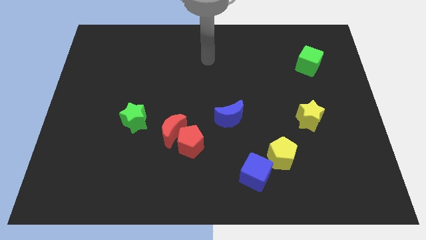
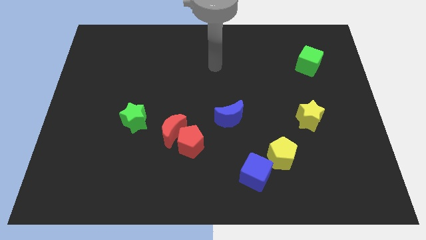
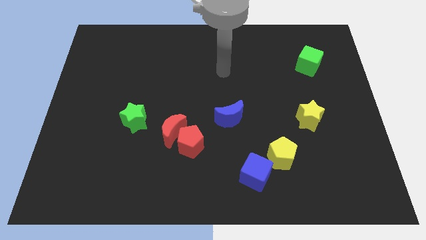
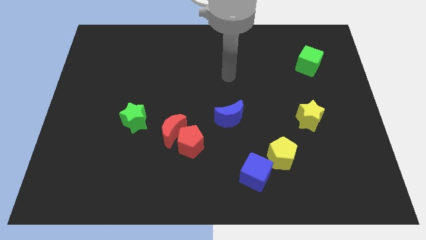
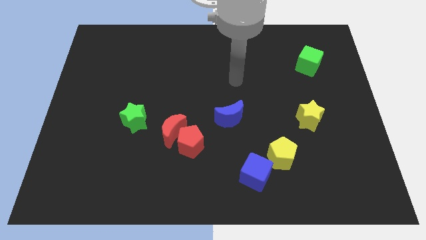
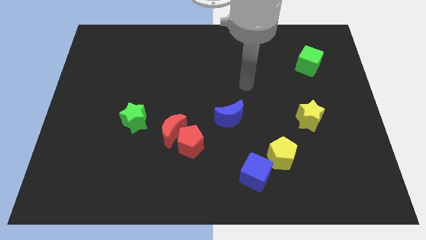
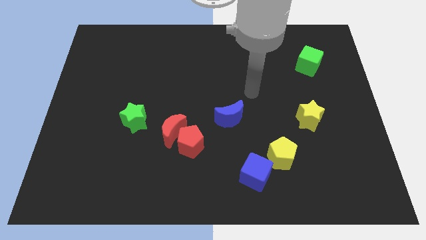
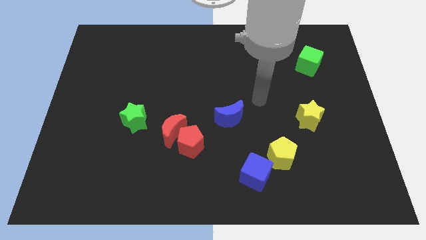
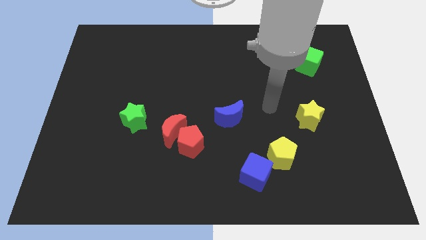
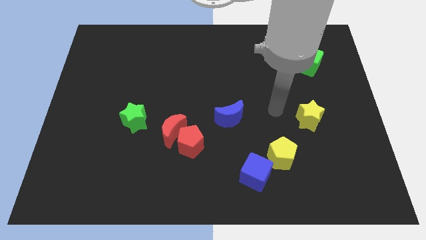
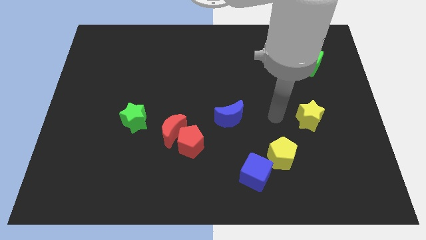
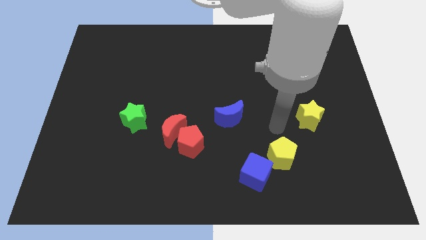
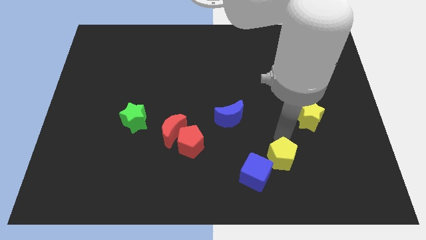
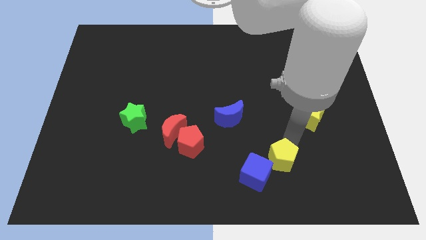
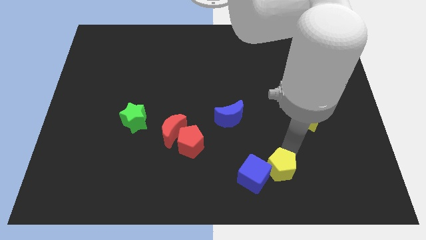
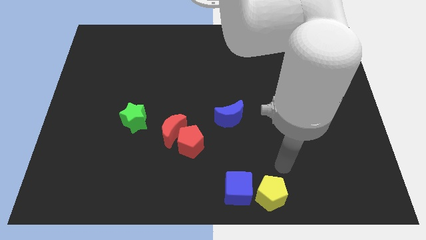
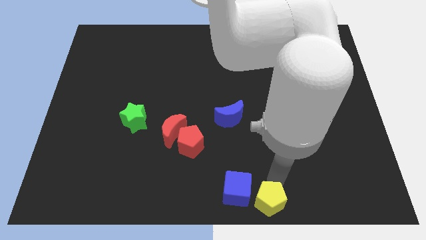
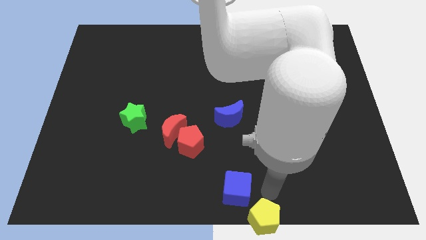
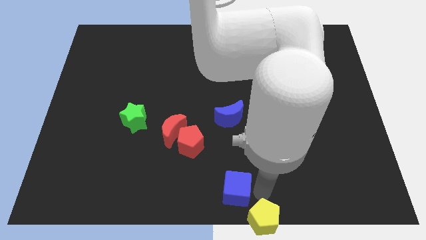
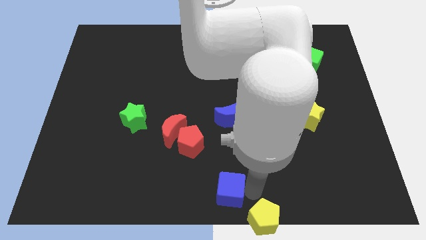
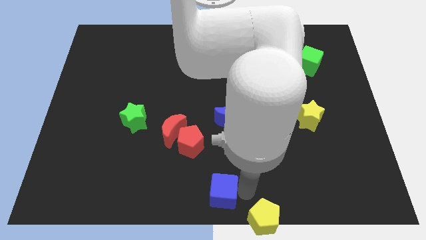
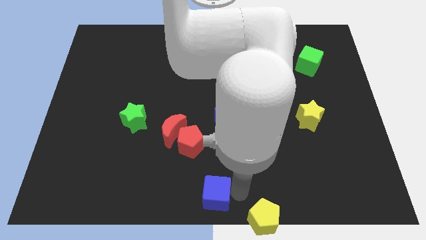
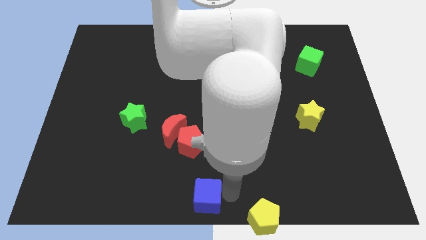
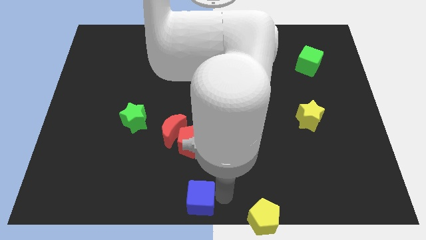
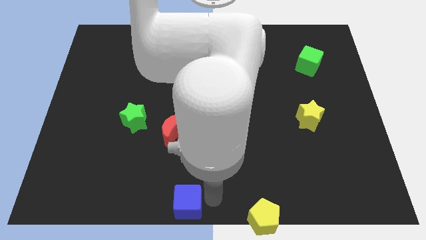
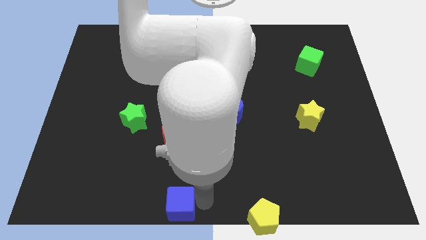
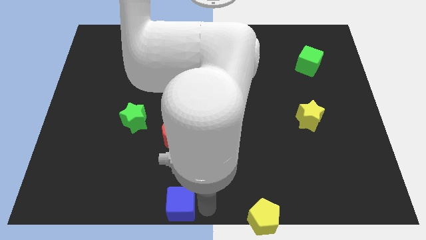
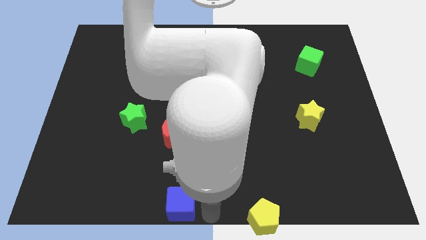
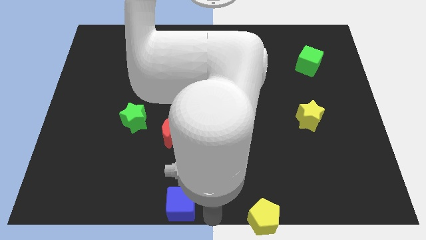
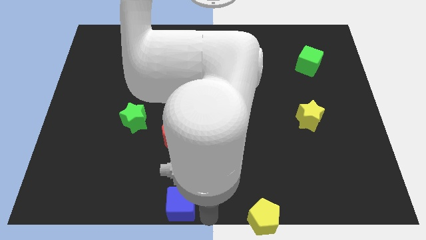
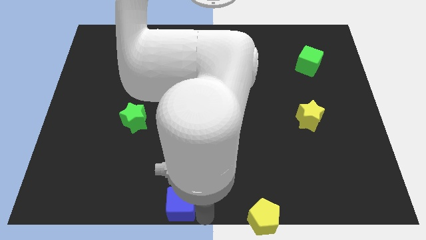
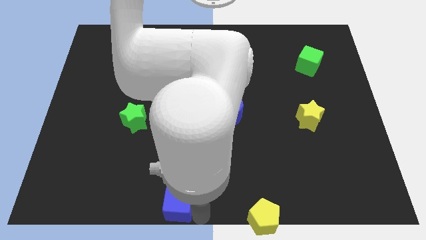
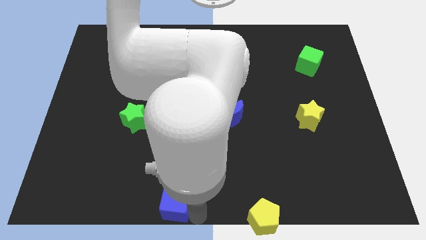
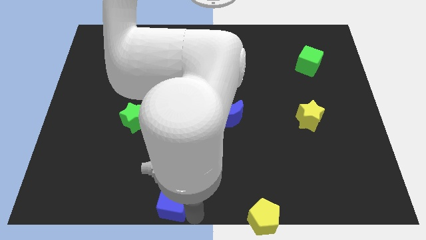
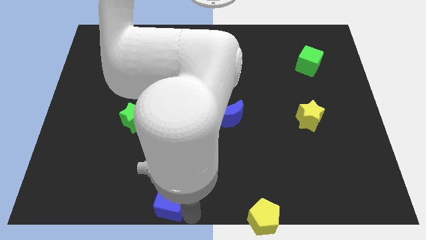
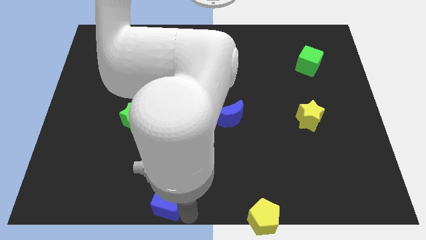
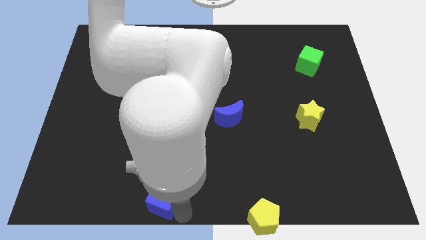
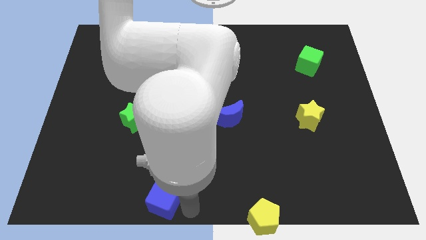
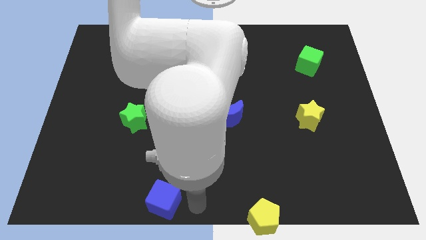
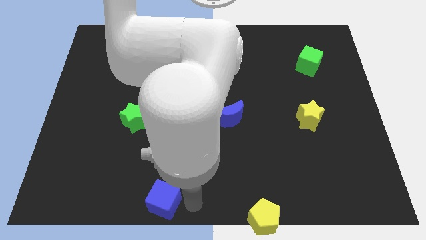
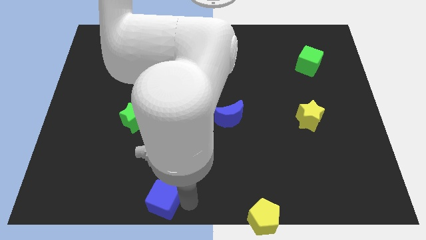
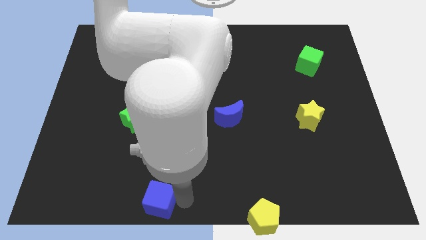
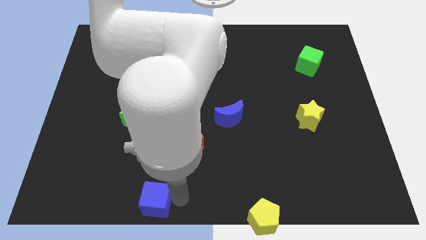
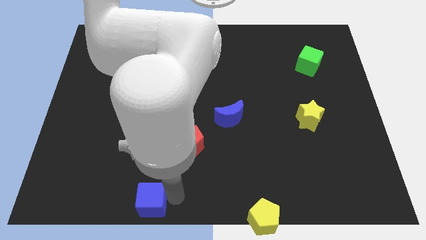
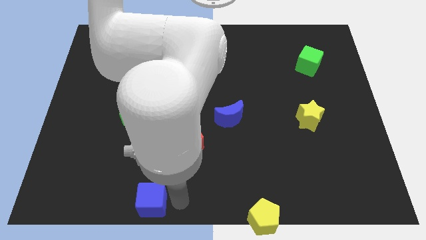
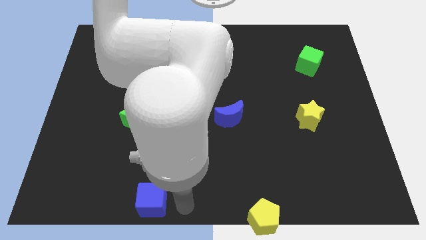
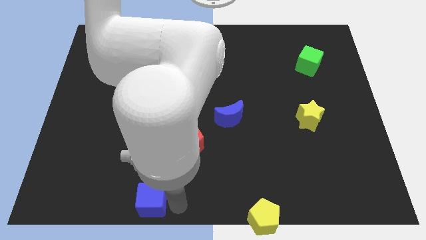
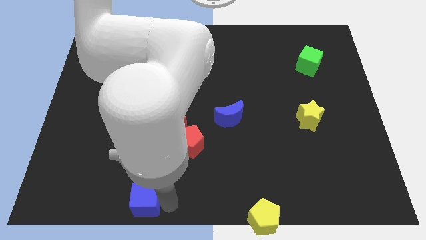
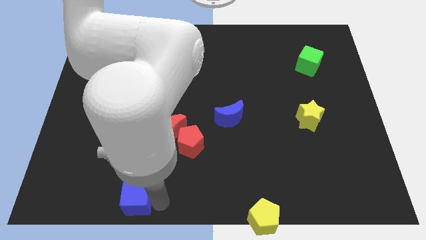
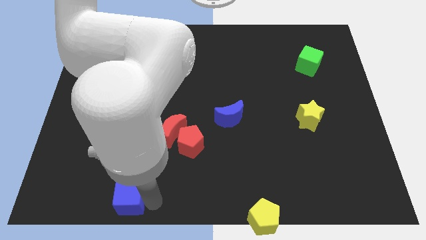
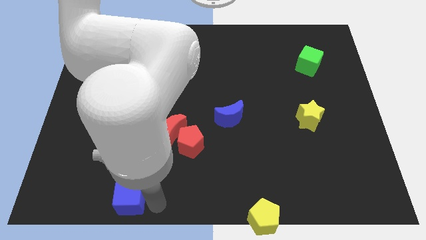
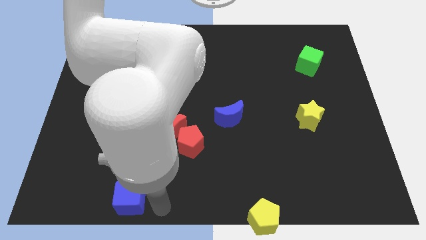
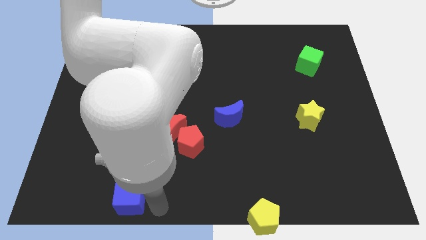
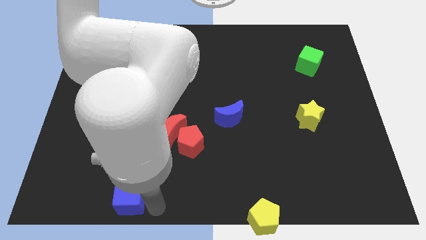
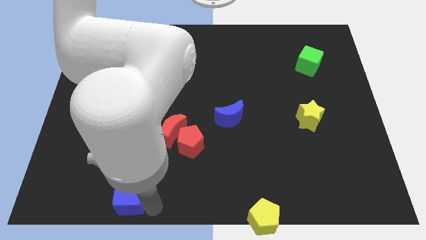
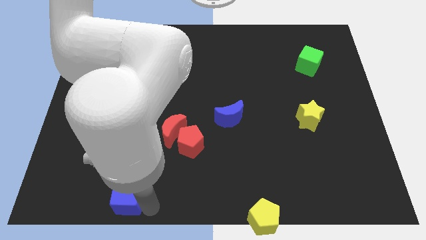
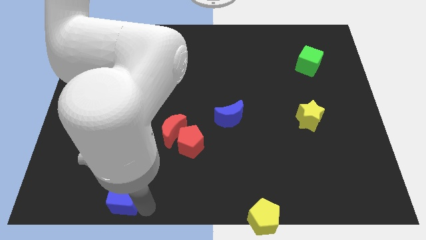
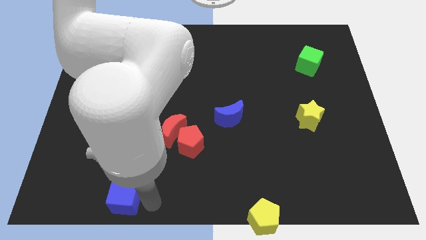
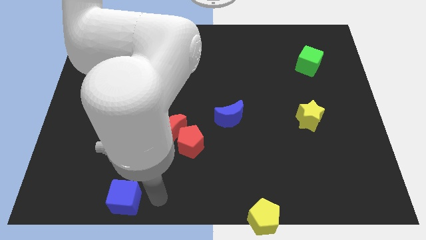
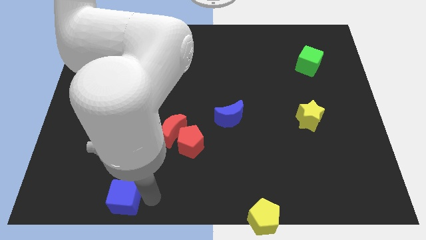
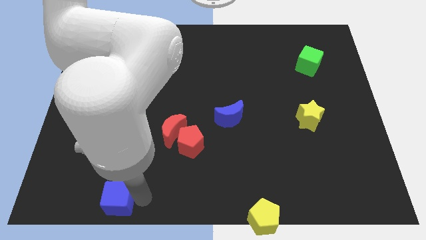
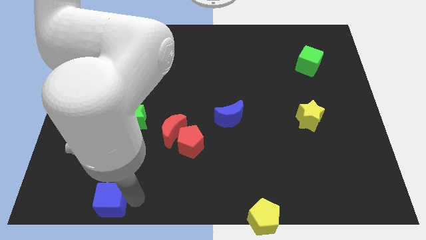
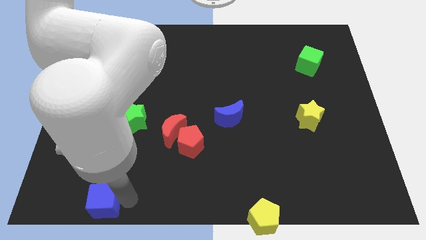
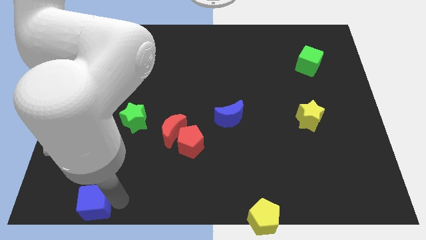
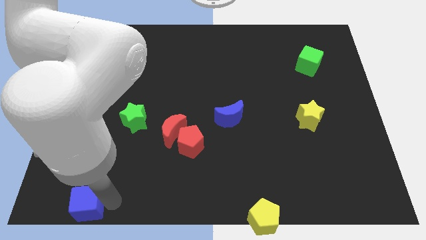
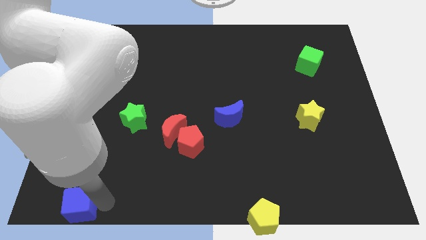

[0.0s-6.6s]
move the blue cube to the lower left corner
